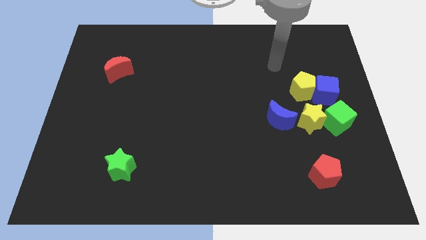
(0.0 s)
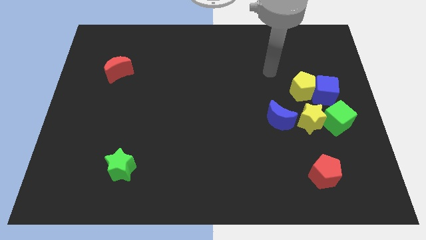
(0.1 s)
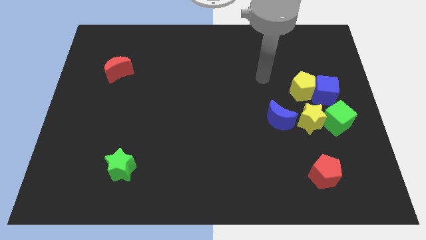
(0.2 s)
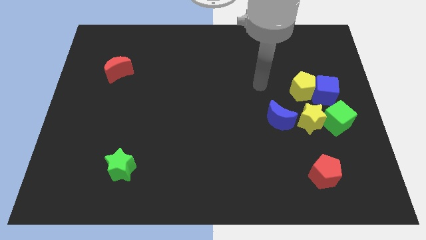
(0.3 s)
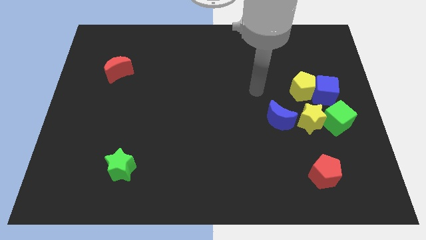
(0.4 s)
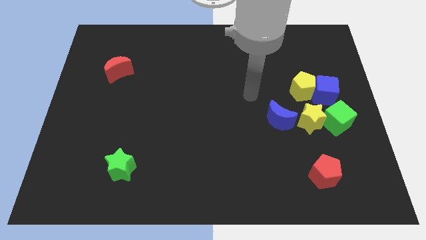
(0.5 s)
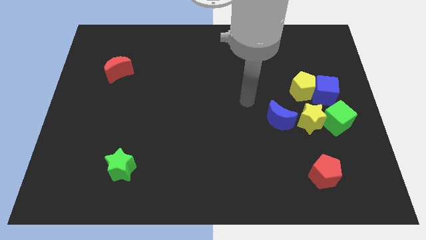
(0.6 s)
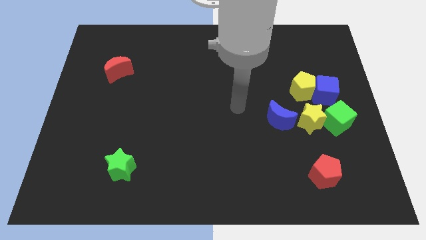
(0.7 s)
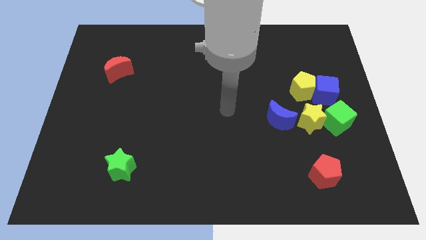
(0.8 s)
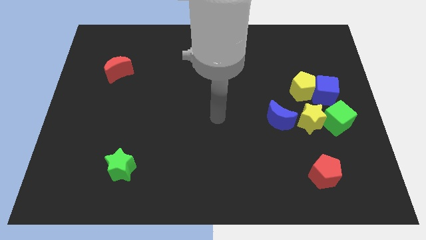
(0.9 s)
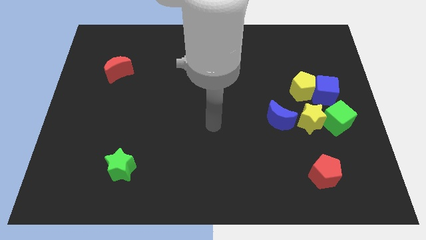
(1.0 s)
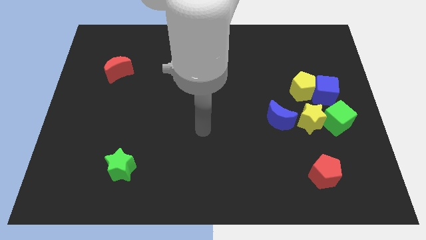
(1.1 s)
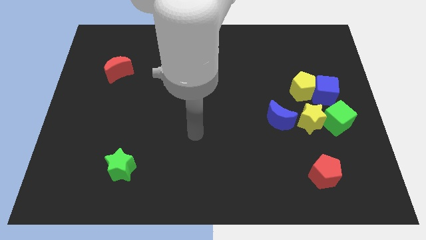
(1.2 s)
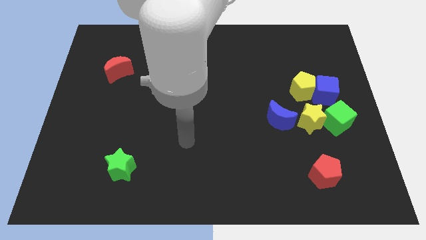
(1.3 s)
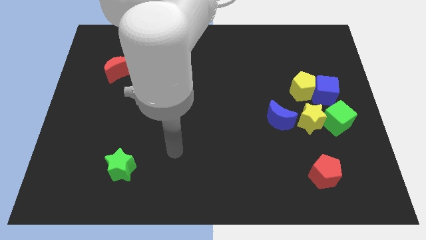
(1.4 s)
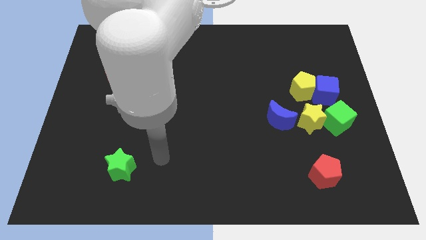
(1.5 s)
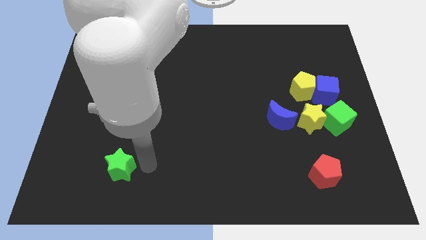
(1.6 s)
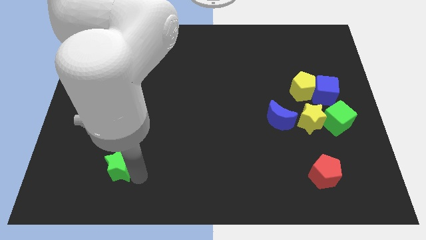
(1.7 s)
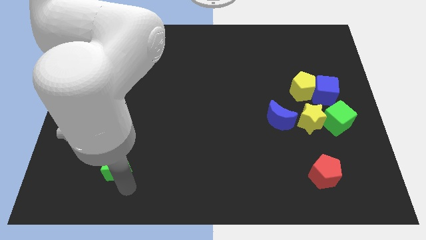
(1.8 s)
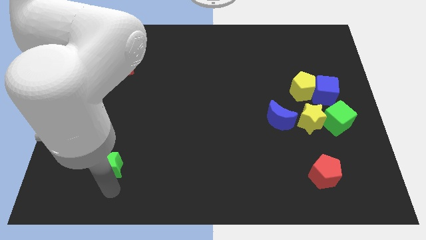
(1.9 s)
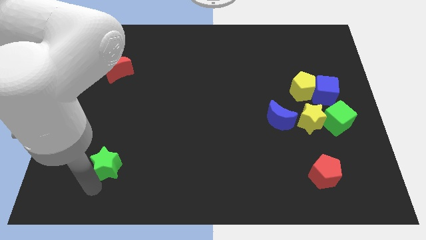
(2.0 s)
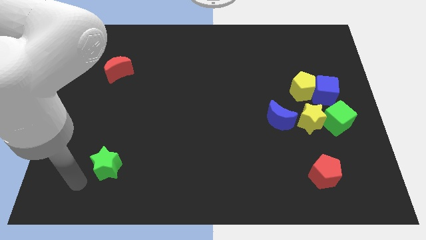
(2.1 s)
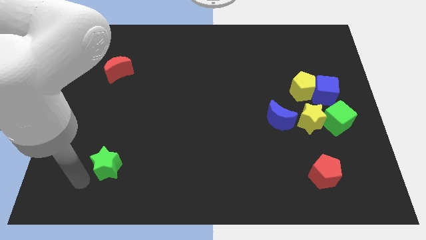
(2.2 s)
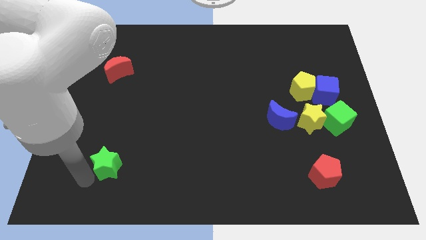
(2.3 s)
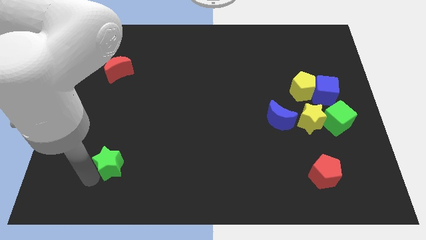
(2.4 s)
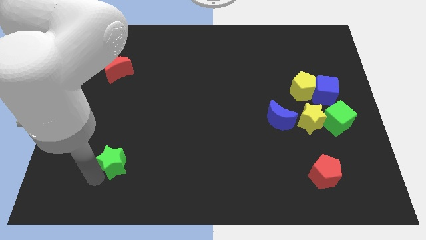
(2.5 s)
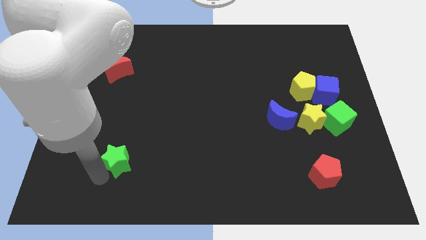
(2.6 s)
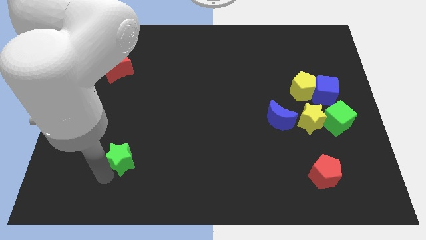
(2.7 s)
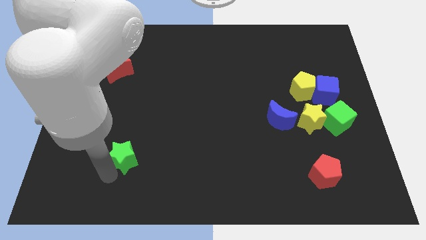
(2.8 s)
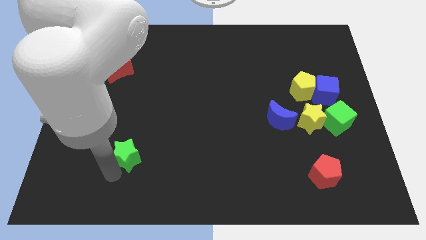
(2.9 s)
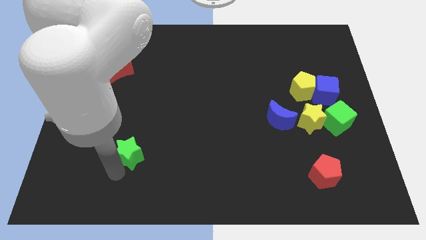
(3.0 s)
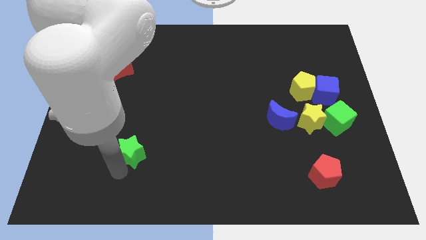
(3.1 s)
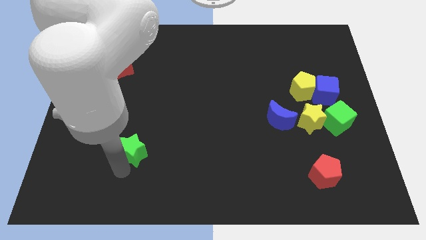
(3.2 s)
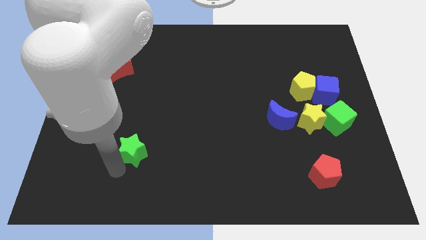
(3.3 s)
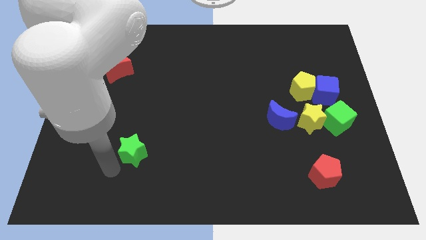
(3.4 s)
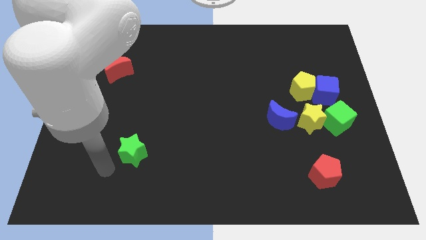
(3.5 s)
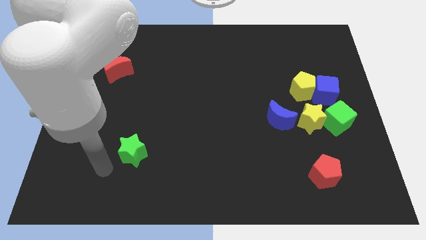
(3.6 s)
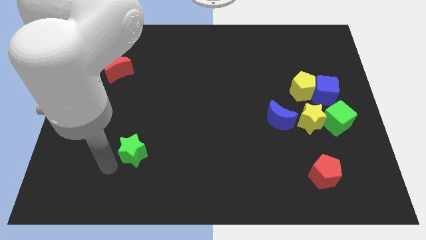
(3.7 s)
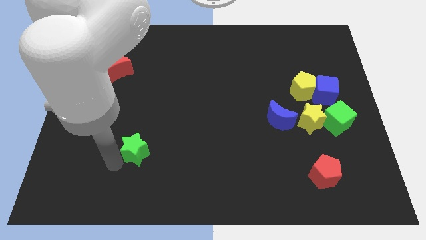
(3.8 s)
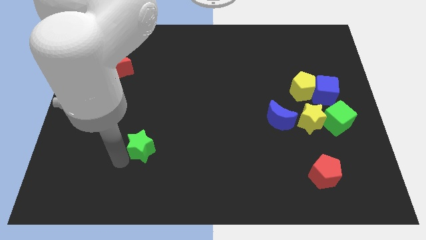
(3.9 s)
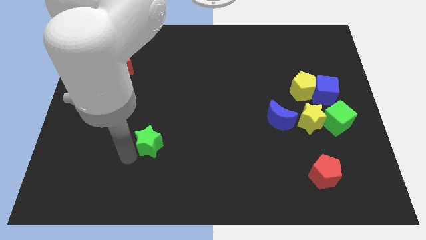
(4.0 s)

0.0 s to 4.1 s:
slightly push the green star upwards and to the right

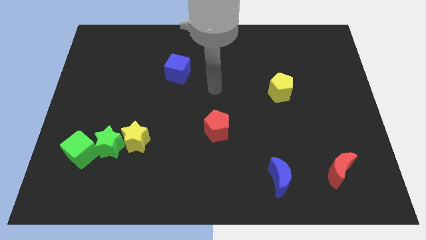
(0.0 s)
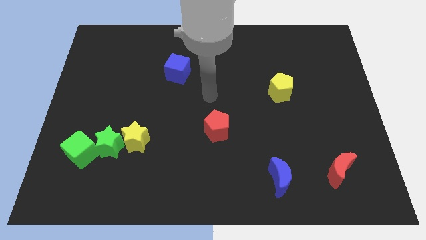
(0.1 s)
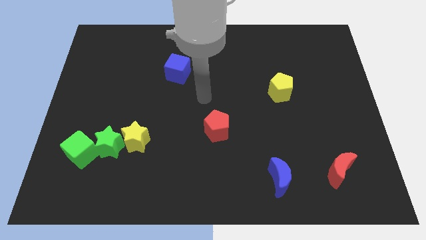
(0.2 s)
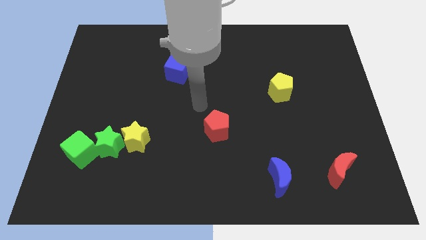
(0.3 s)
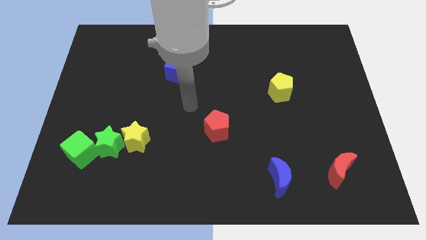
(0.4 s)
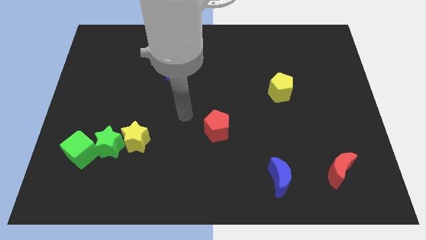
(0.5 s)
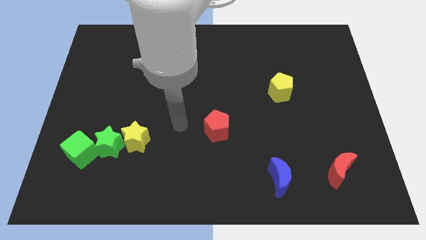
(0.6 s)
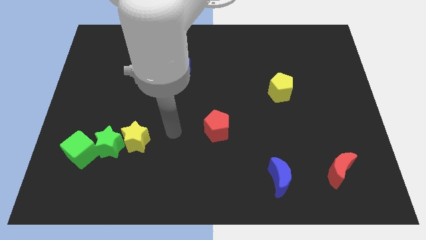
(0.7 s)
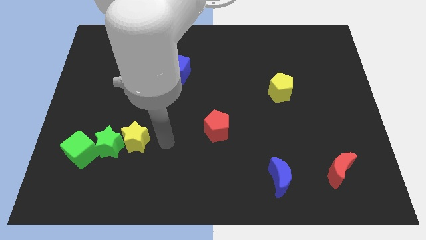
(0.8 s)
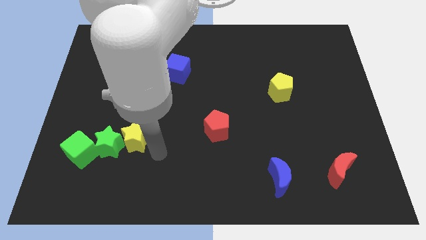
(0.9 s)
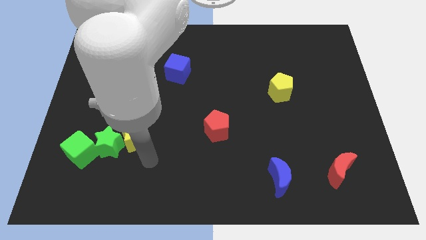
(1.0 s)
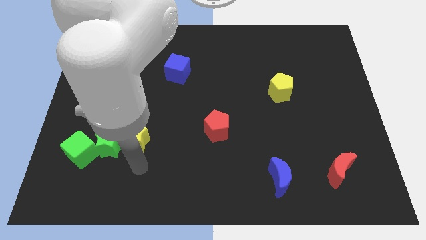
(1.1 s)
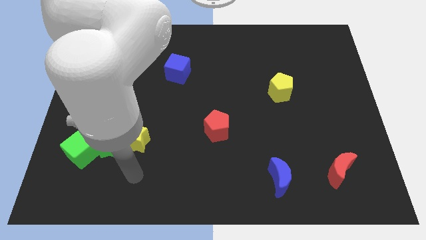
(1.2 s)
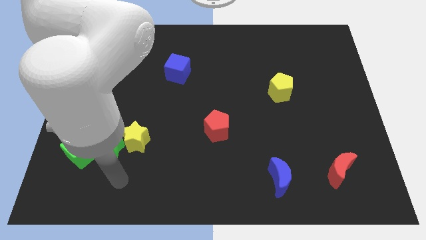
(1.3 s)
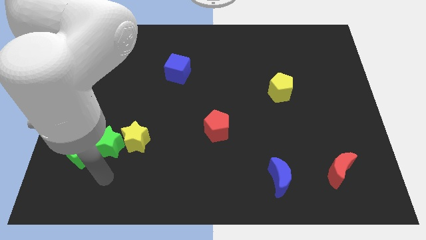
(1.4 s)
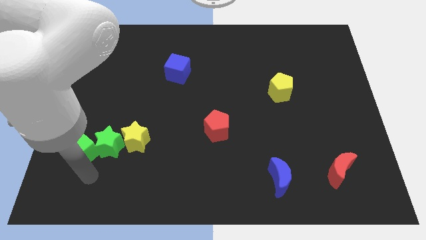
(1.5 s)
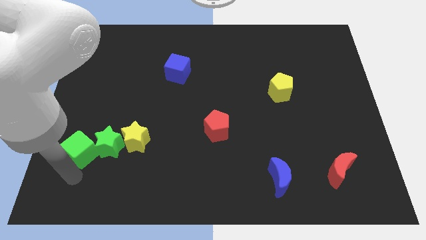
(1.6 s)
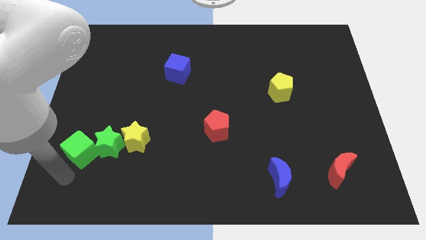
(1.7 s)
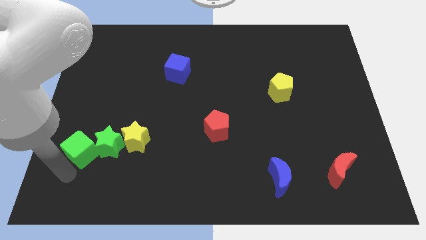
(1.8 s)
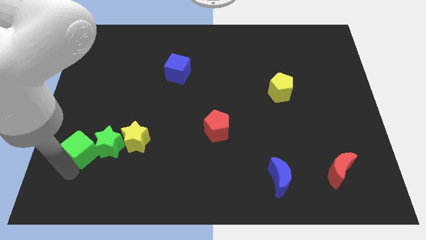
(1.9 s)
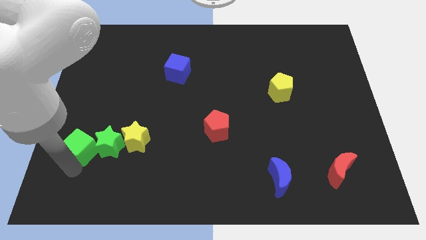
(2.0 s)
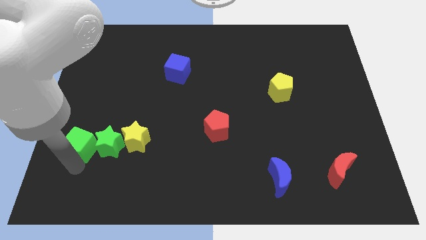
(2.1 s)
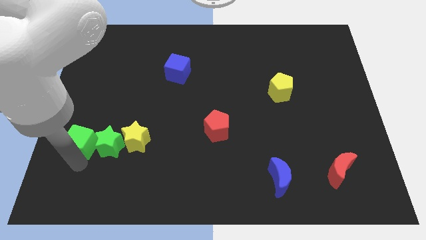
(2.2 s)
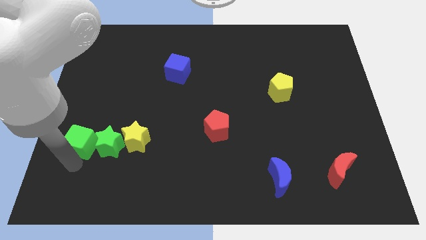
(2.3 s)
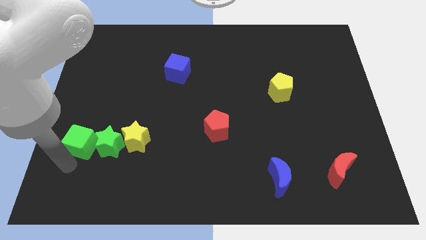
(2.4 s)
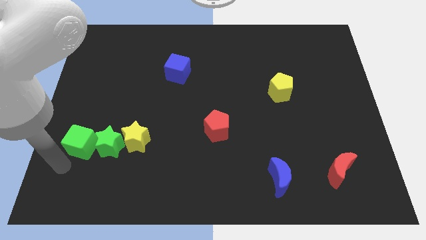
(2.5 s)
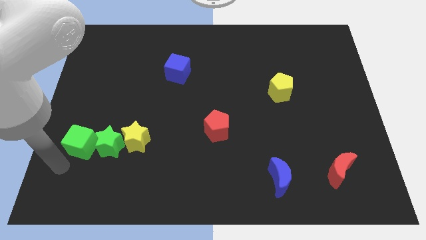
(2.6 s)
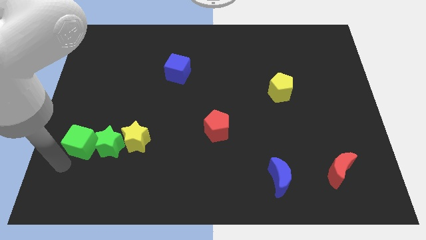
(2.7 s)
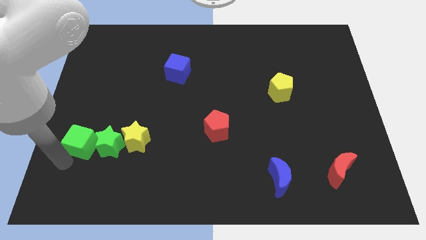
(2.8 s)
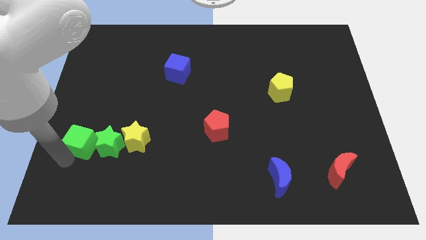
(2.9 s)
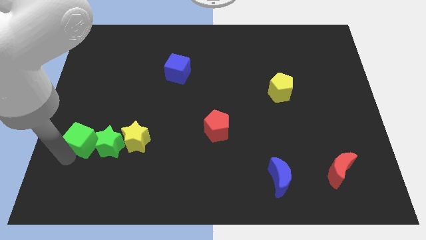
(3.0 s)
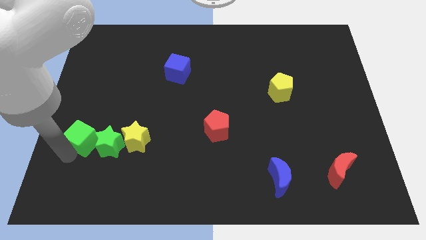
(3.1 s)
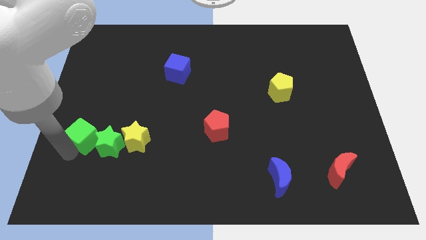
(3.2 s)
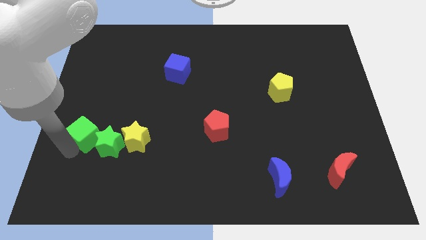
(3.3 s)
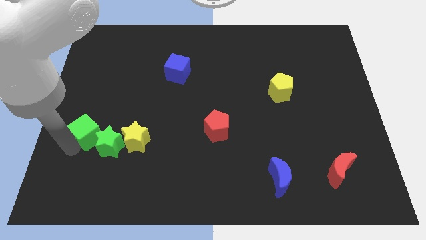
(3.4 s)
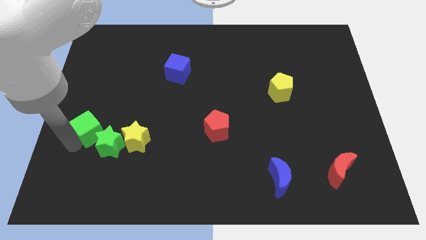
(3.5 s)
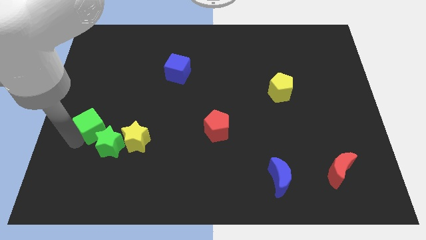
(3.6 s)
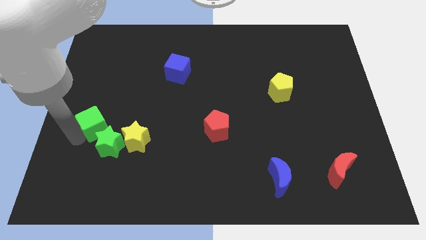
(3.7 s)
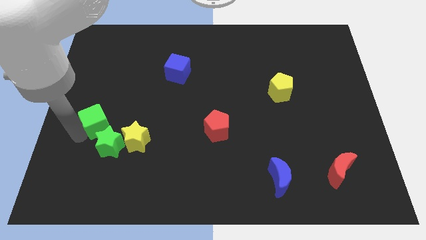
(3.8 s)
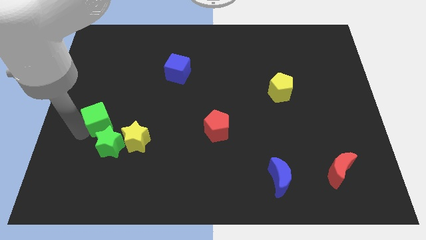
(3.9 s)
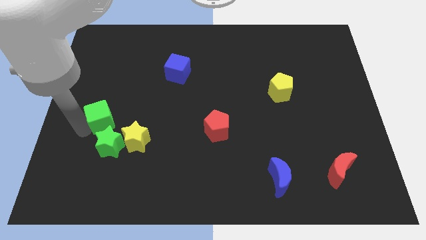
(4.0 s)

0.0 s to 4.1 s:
move the green cube somewhat upwards and then to the right
